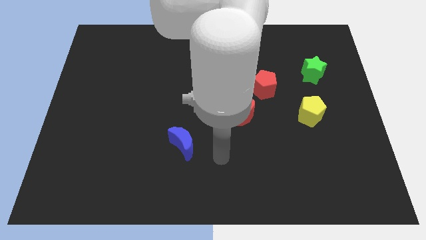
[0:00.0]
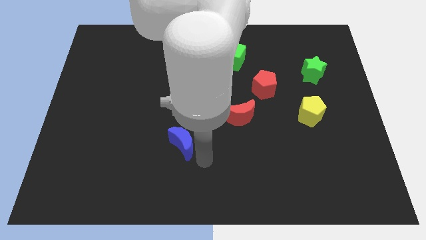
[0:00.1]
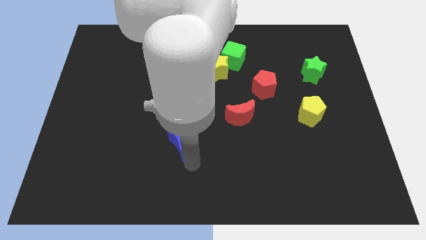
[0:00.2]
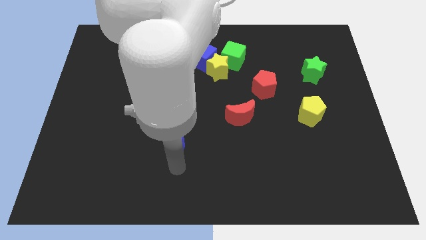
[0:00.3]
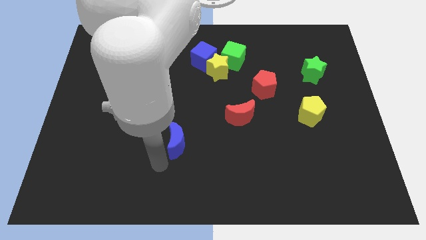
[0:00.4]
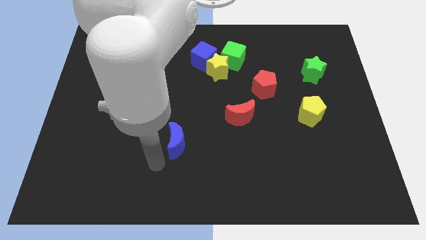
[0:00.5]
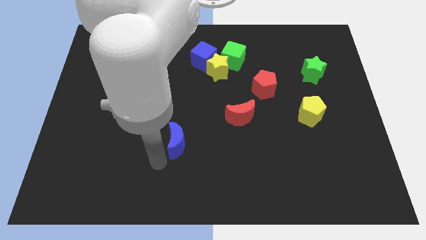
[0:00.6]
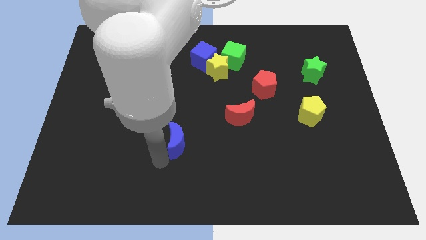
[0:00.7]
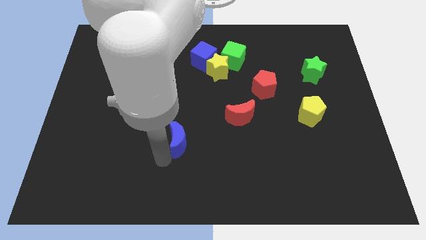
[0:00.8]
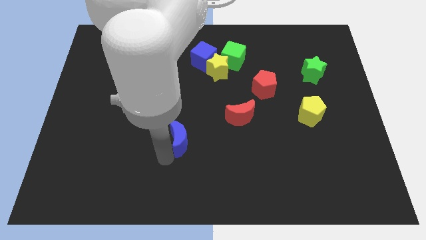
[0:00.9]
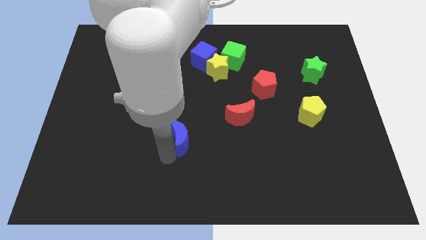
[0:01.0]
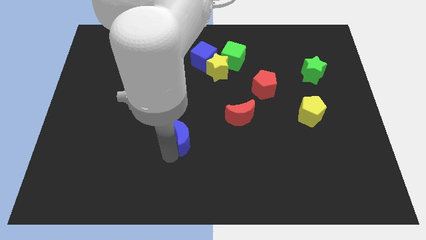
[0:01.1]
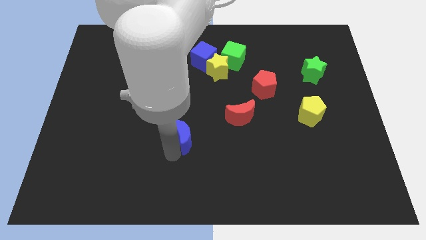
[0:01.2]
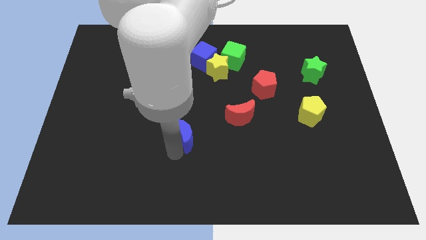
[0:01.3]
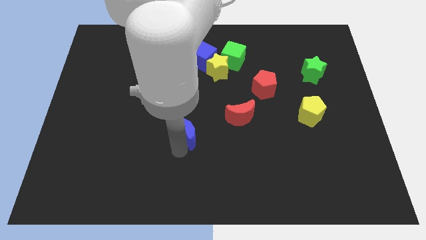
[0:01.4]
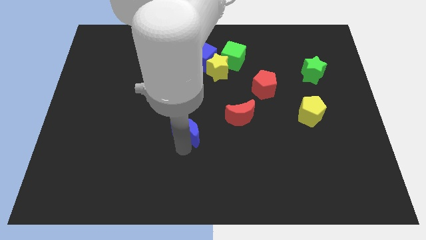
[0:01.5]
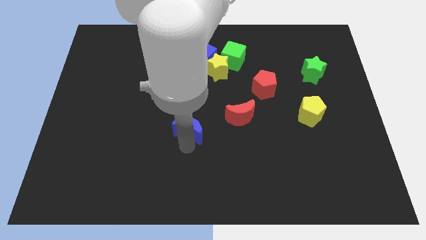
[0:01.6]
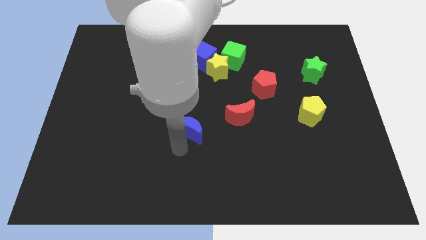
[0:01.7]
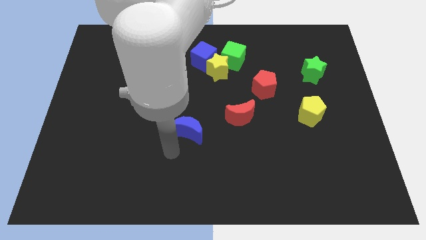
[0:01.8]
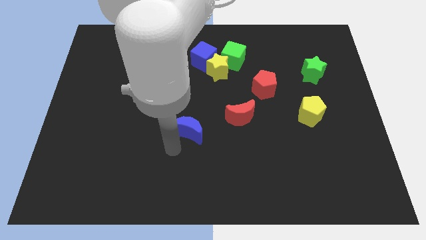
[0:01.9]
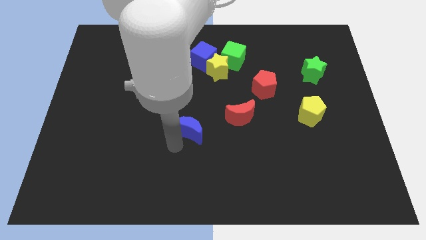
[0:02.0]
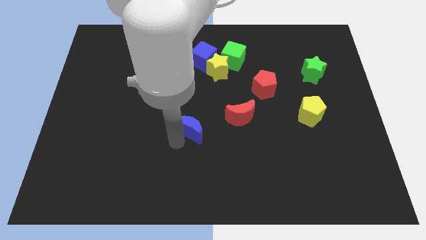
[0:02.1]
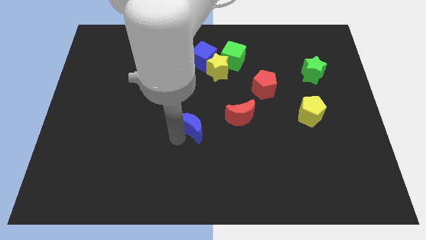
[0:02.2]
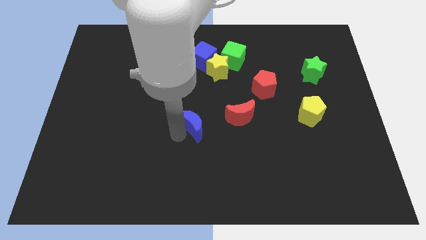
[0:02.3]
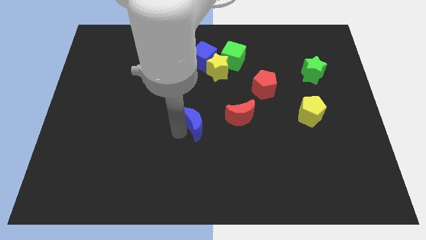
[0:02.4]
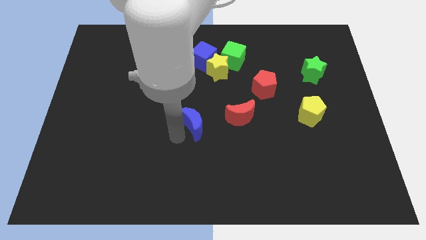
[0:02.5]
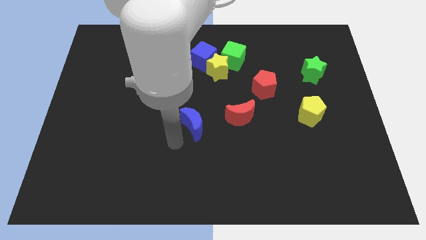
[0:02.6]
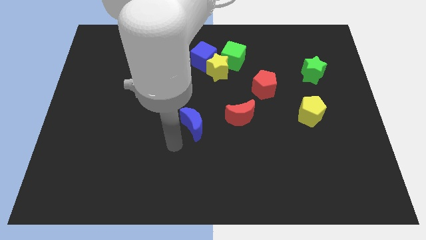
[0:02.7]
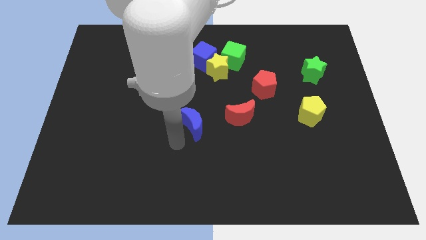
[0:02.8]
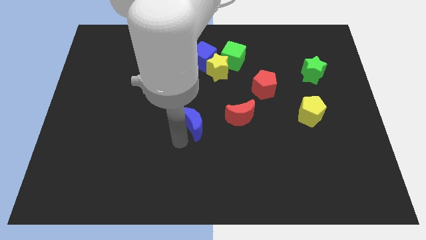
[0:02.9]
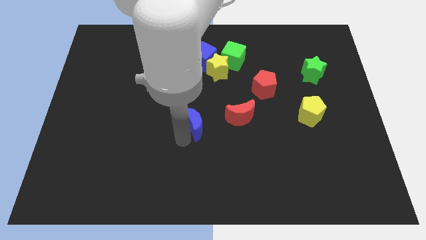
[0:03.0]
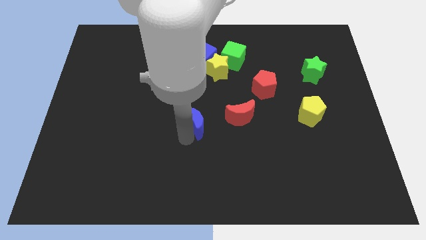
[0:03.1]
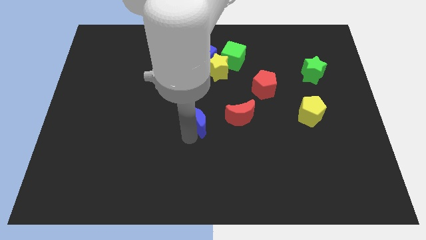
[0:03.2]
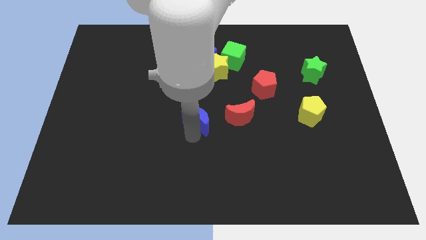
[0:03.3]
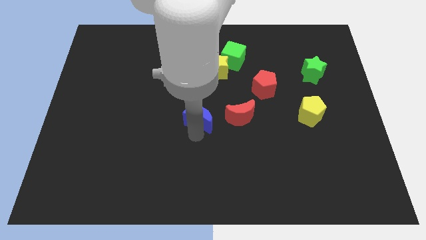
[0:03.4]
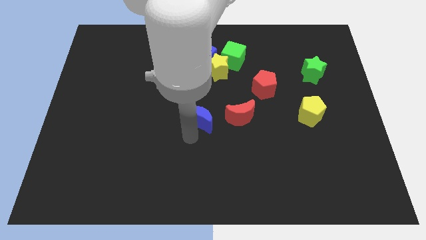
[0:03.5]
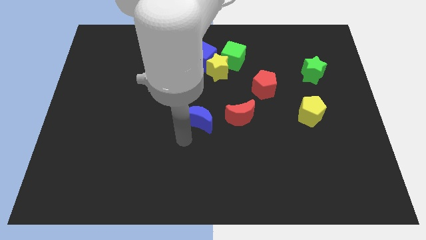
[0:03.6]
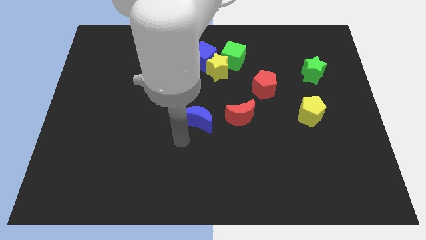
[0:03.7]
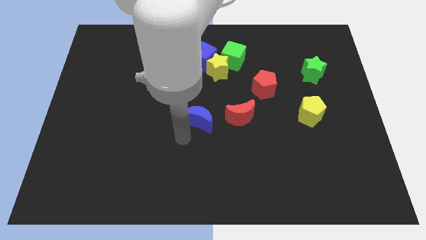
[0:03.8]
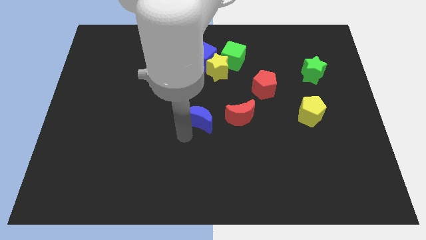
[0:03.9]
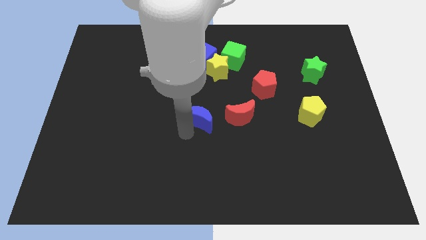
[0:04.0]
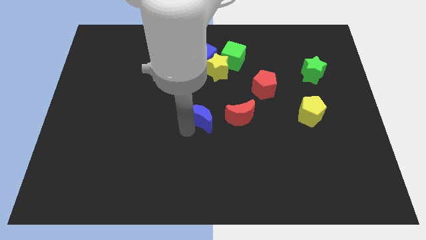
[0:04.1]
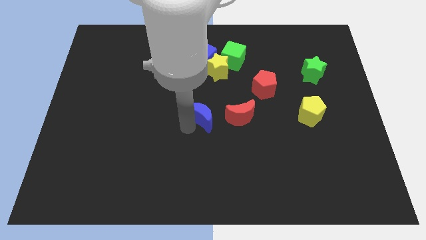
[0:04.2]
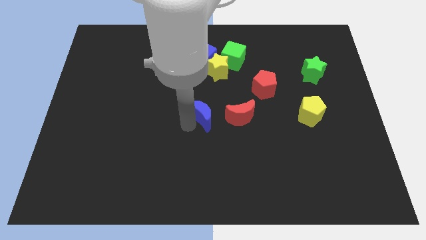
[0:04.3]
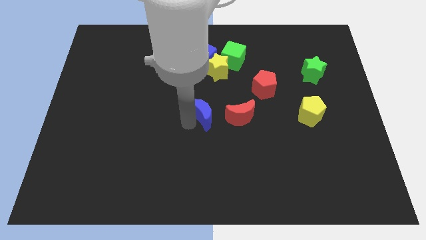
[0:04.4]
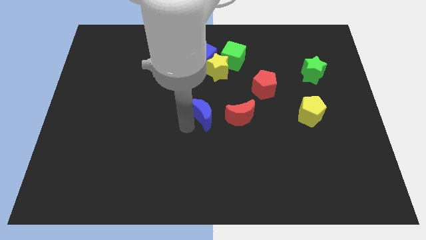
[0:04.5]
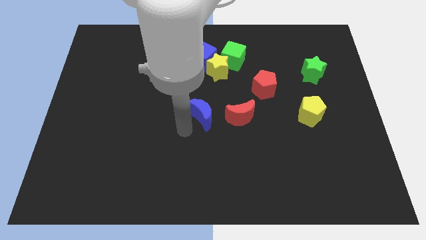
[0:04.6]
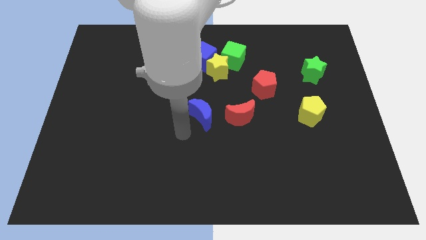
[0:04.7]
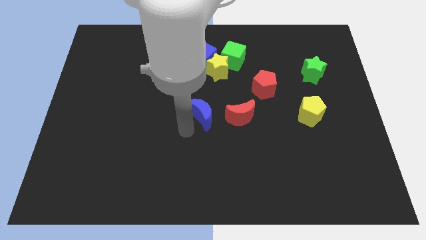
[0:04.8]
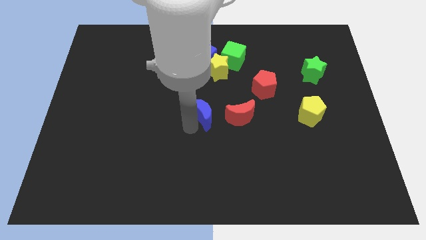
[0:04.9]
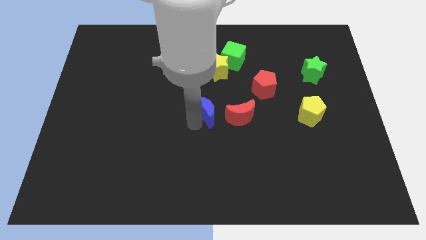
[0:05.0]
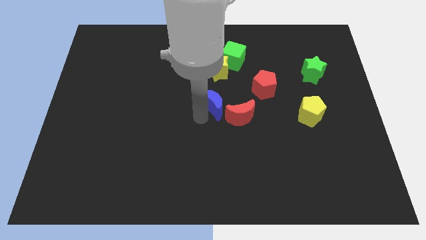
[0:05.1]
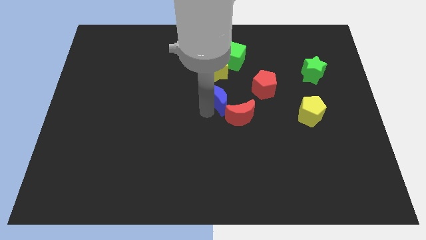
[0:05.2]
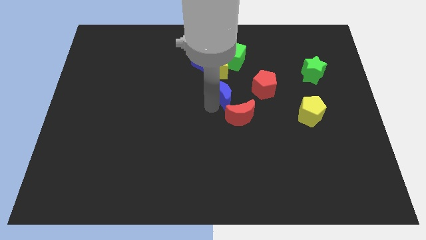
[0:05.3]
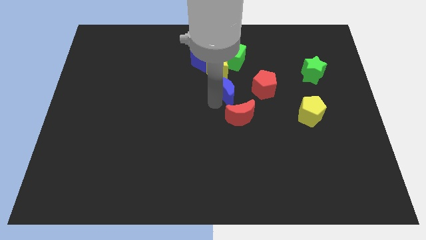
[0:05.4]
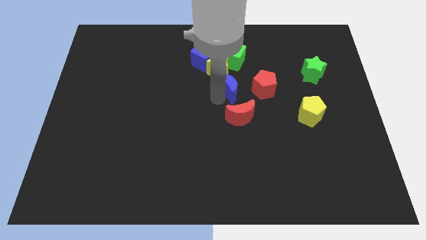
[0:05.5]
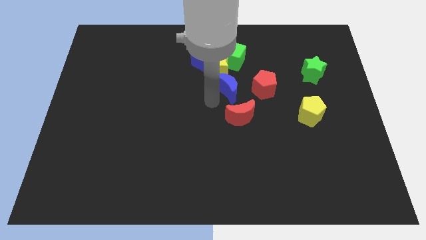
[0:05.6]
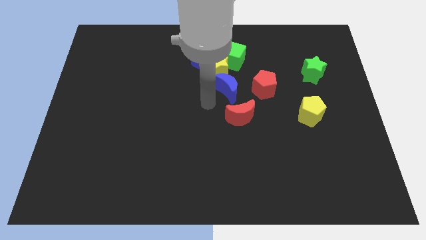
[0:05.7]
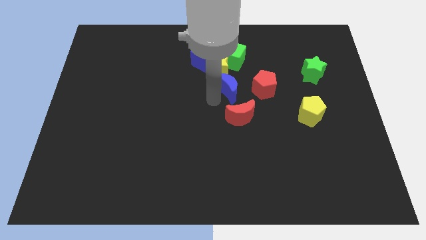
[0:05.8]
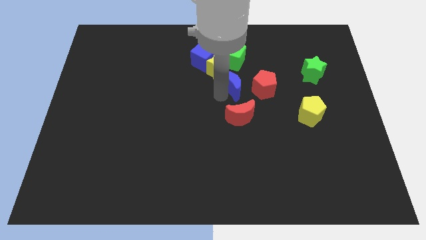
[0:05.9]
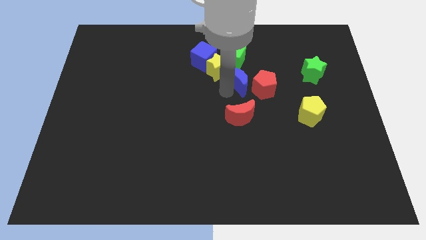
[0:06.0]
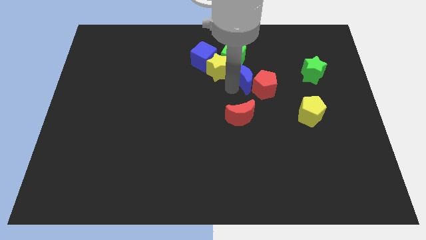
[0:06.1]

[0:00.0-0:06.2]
slide the blue moon diagonally down and to the right of the green cube
